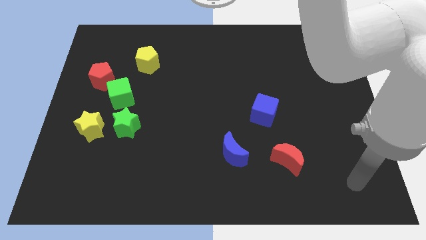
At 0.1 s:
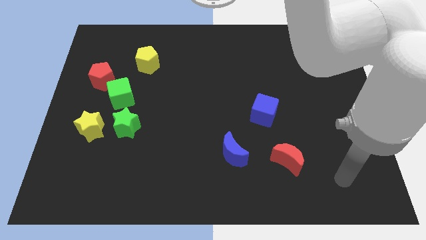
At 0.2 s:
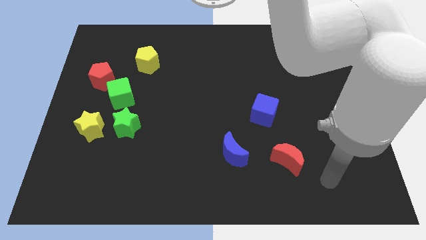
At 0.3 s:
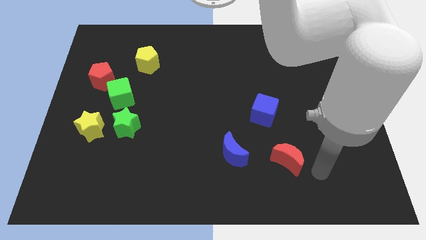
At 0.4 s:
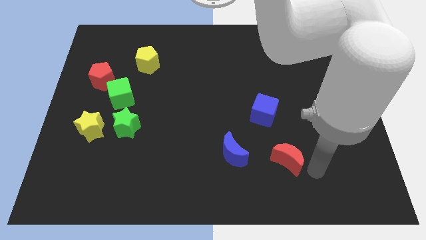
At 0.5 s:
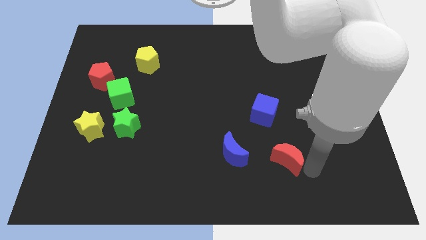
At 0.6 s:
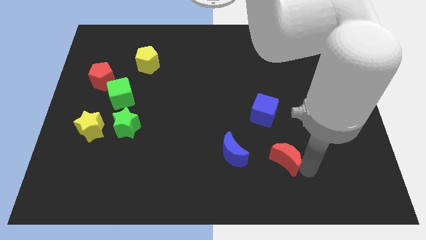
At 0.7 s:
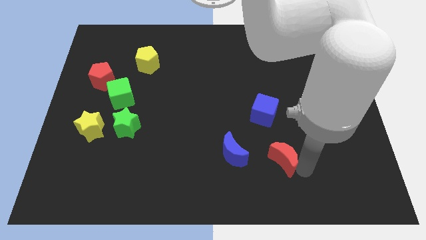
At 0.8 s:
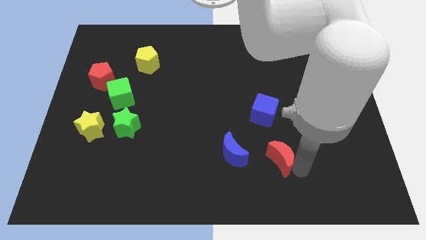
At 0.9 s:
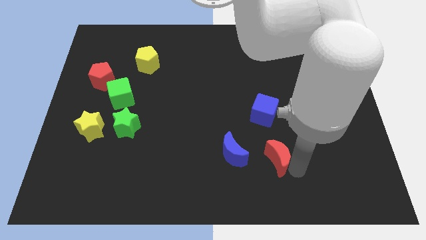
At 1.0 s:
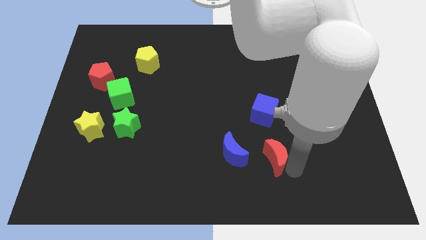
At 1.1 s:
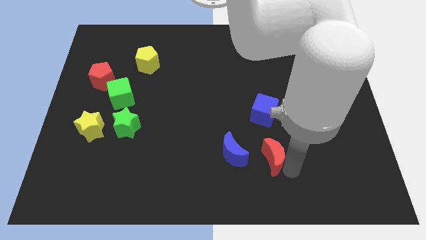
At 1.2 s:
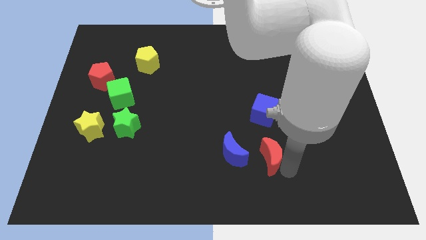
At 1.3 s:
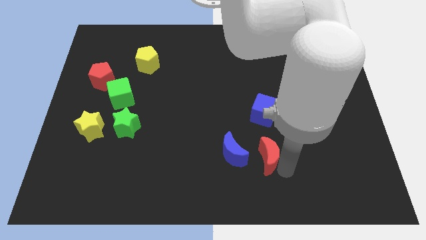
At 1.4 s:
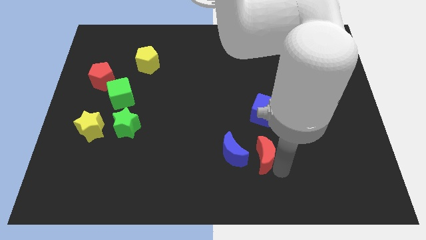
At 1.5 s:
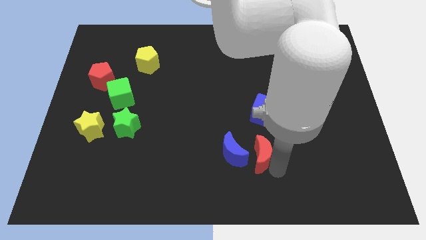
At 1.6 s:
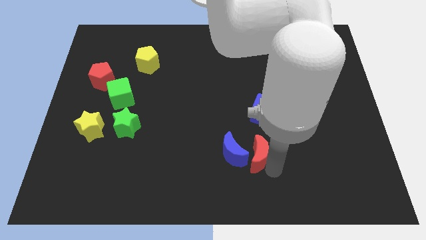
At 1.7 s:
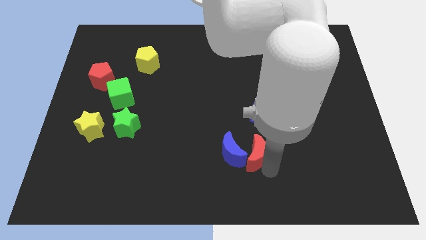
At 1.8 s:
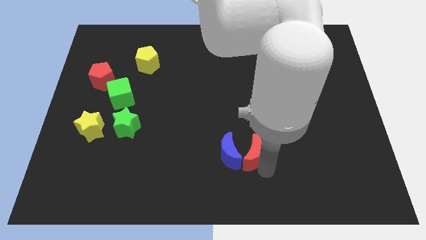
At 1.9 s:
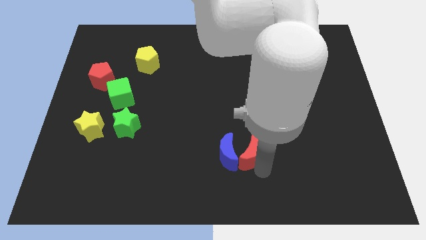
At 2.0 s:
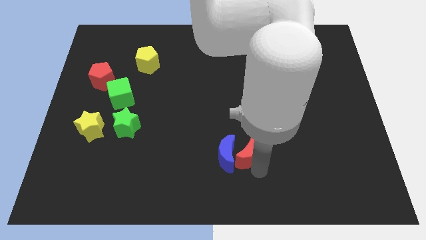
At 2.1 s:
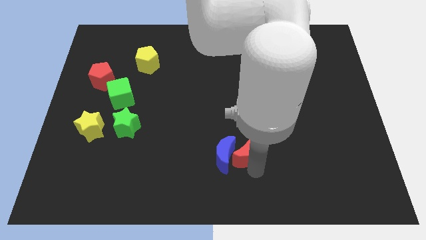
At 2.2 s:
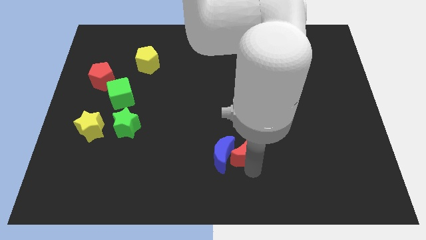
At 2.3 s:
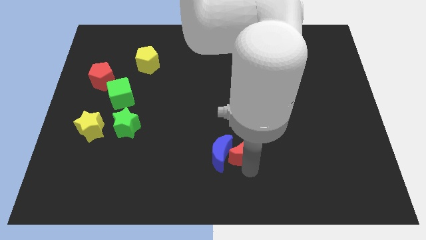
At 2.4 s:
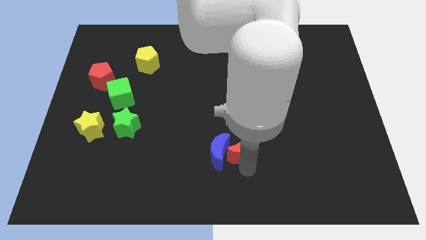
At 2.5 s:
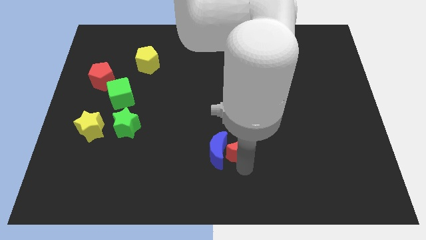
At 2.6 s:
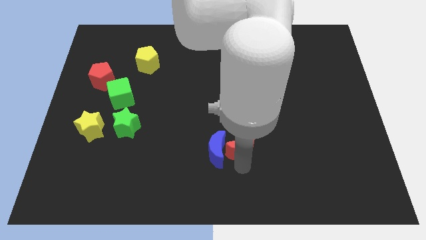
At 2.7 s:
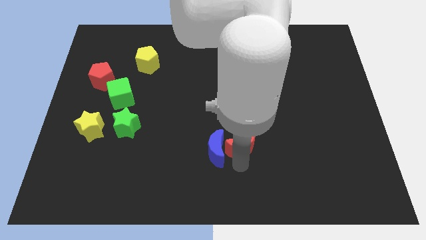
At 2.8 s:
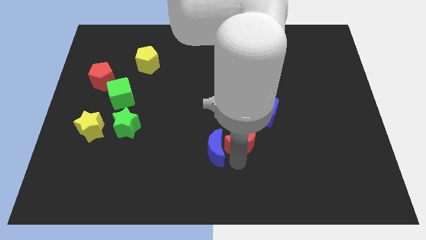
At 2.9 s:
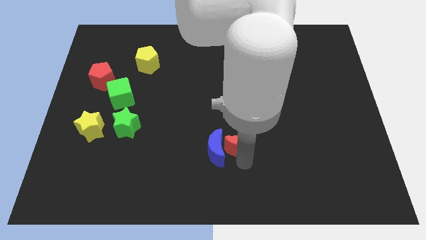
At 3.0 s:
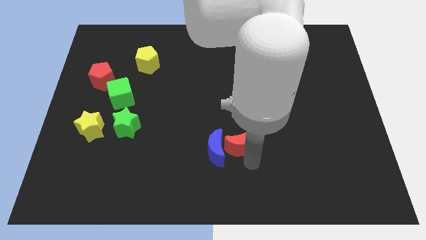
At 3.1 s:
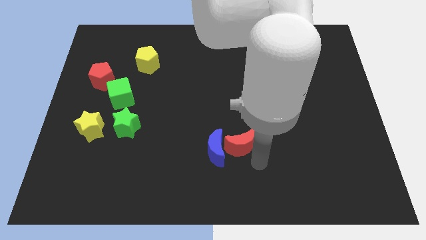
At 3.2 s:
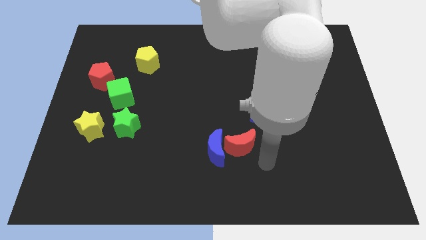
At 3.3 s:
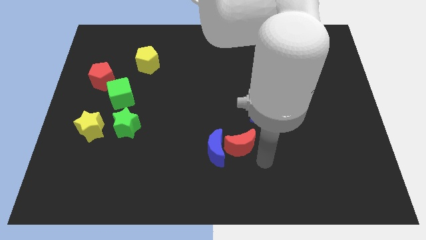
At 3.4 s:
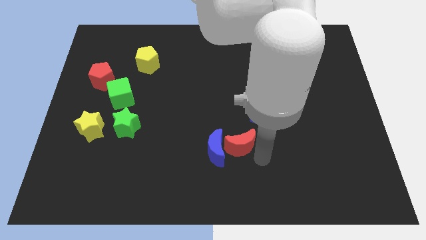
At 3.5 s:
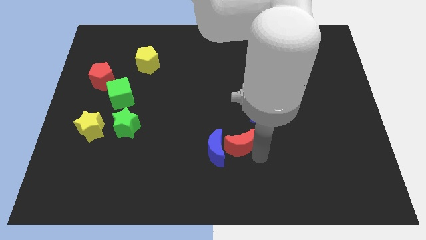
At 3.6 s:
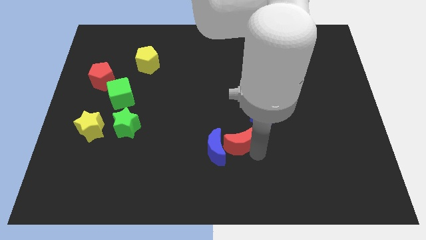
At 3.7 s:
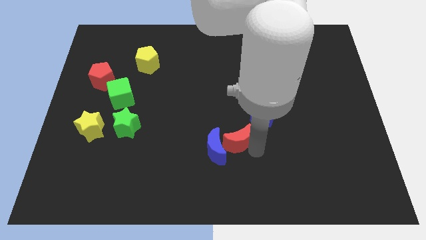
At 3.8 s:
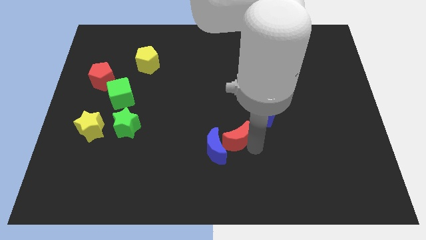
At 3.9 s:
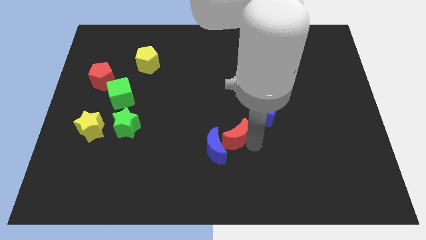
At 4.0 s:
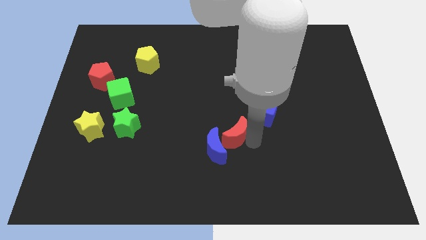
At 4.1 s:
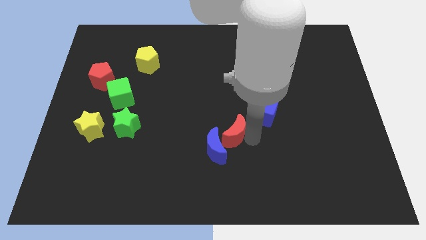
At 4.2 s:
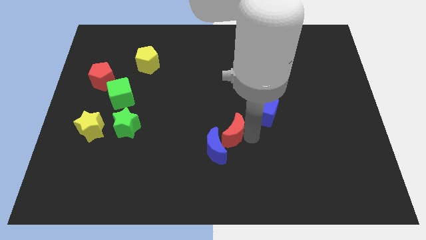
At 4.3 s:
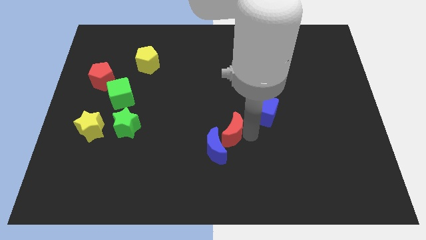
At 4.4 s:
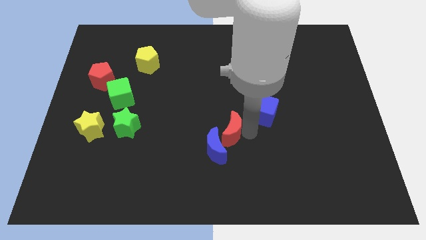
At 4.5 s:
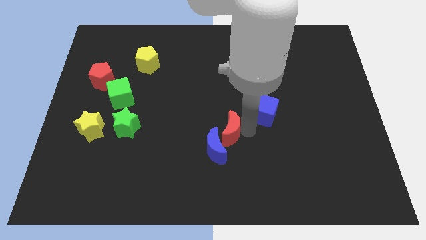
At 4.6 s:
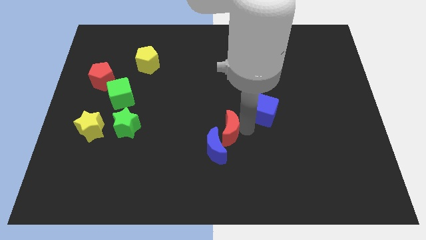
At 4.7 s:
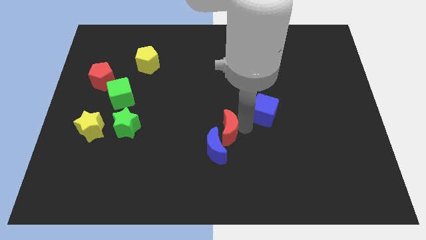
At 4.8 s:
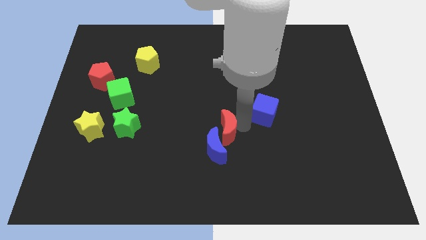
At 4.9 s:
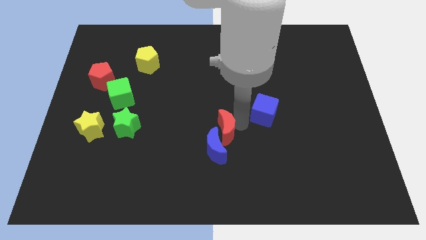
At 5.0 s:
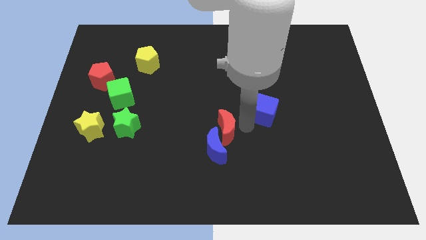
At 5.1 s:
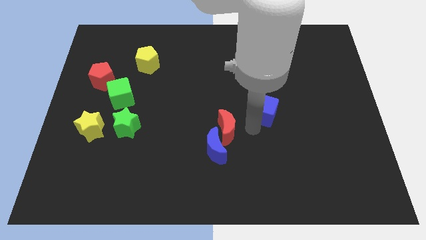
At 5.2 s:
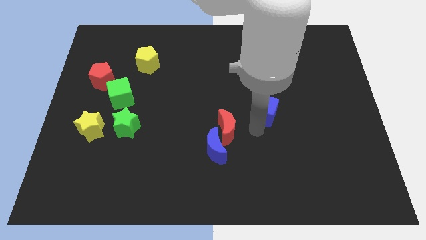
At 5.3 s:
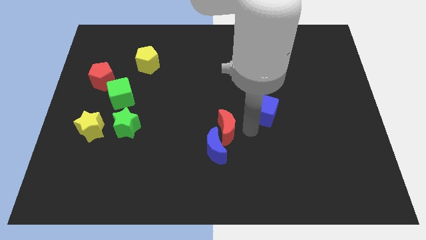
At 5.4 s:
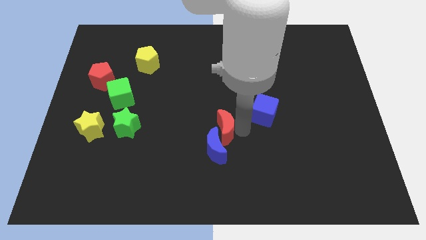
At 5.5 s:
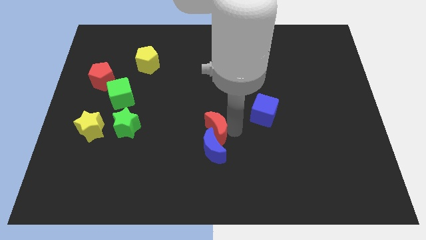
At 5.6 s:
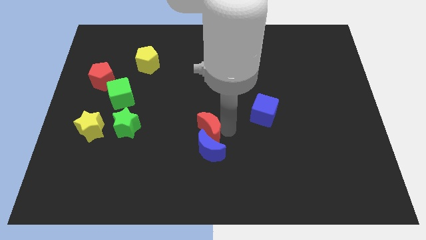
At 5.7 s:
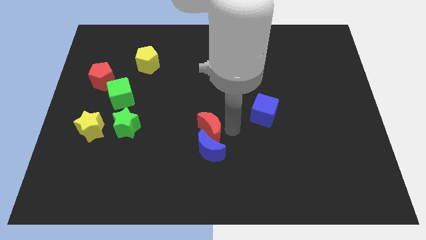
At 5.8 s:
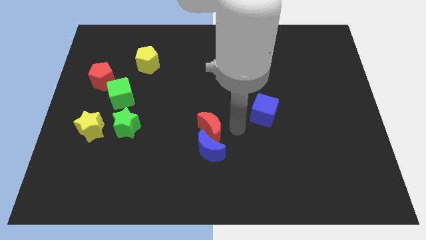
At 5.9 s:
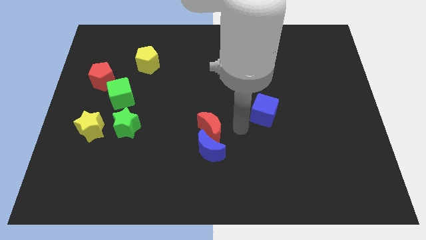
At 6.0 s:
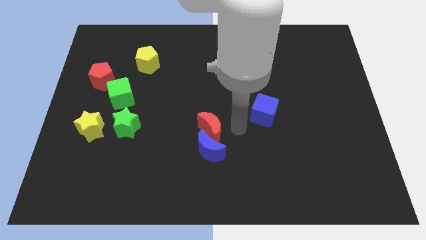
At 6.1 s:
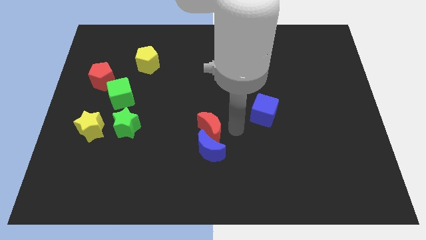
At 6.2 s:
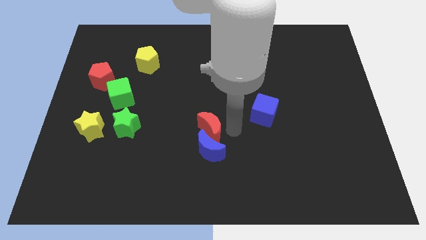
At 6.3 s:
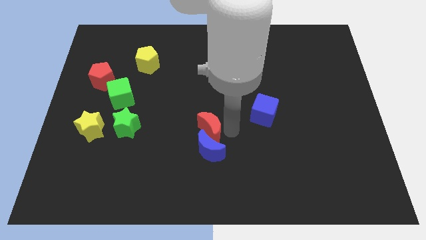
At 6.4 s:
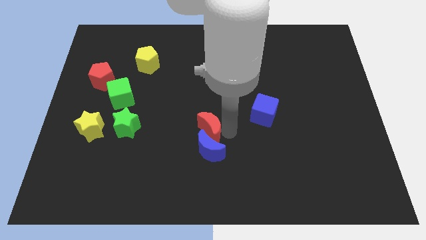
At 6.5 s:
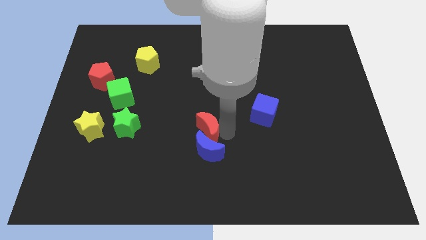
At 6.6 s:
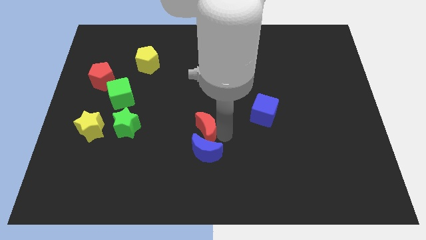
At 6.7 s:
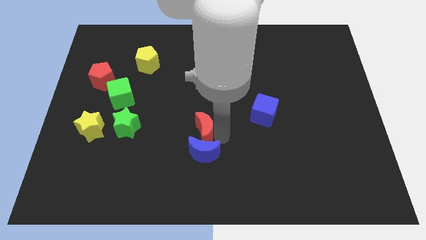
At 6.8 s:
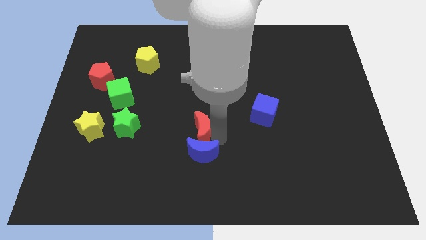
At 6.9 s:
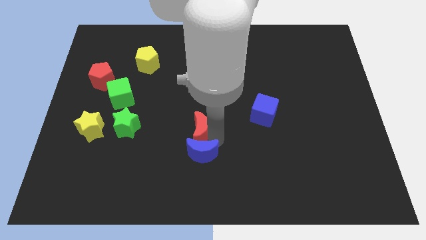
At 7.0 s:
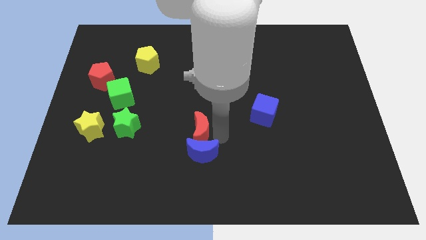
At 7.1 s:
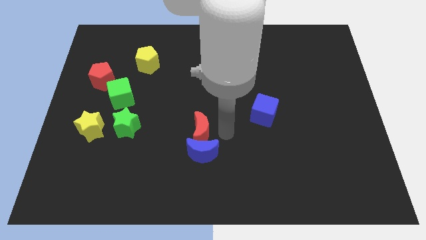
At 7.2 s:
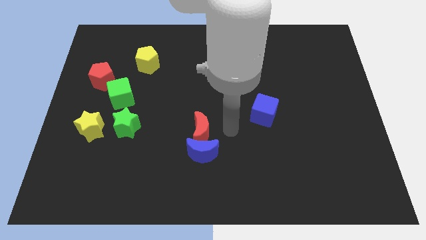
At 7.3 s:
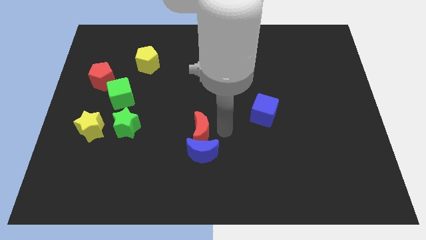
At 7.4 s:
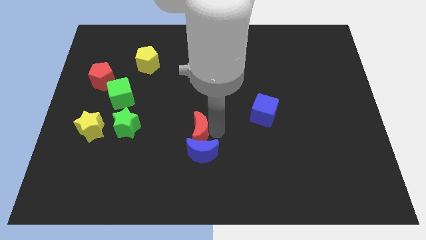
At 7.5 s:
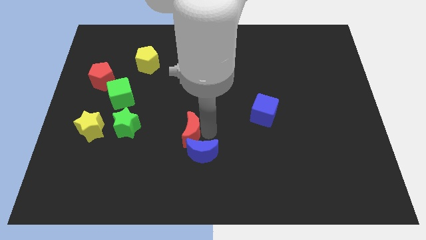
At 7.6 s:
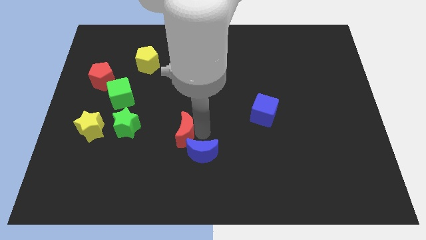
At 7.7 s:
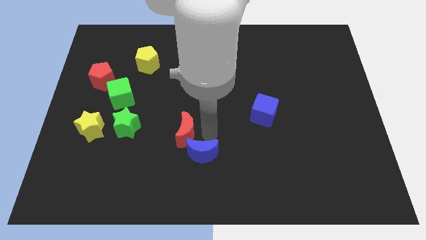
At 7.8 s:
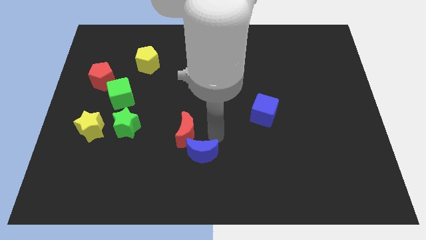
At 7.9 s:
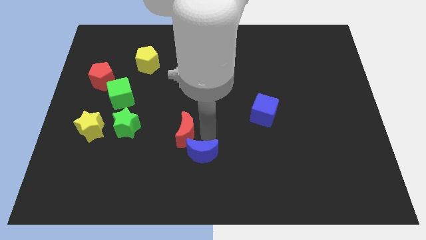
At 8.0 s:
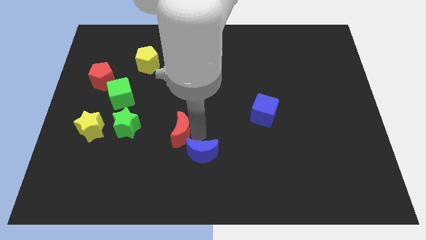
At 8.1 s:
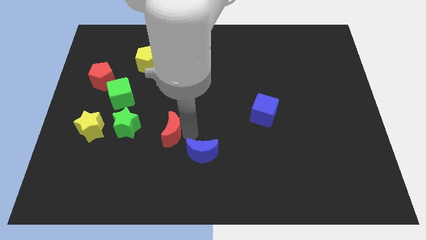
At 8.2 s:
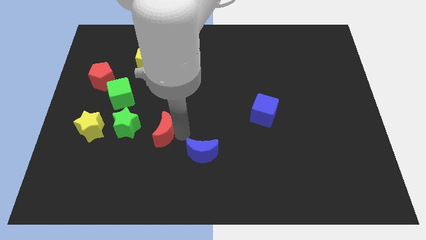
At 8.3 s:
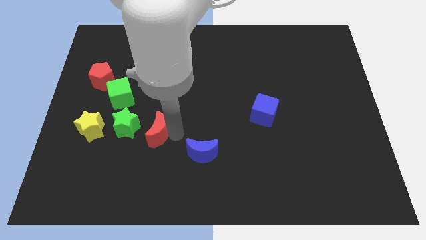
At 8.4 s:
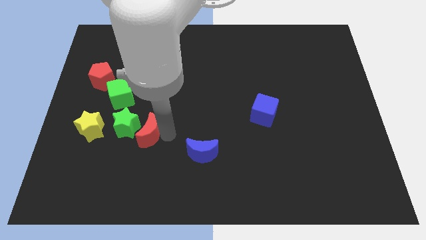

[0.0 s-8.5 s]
push the red moon close to the green star
